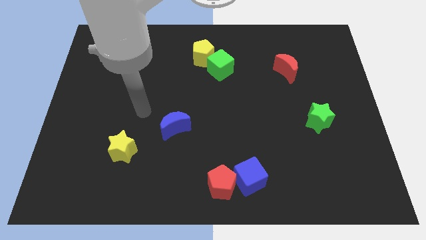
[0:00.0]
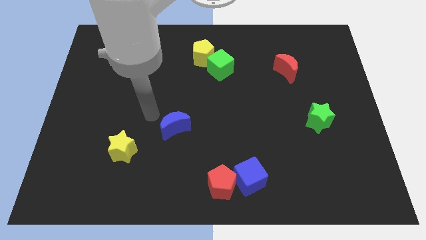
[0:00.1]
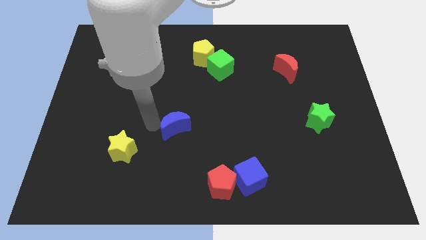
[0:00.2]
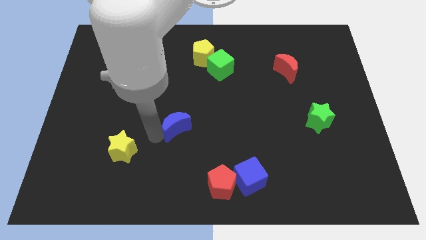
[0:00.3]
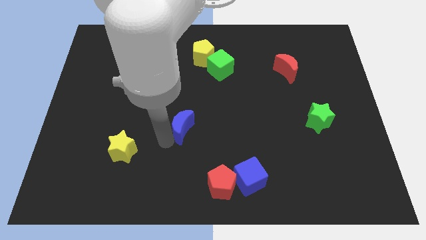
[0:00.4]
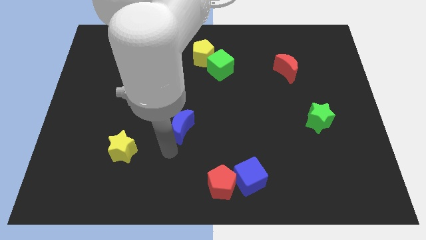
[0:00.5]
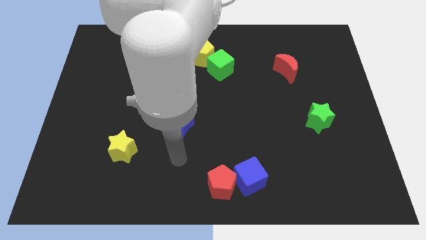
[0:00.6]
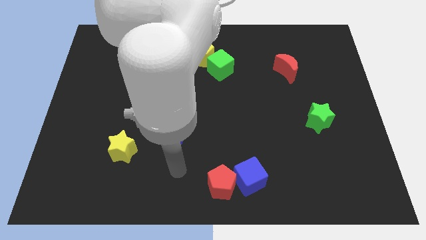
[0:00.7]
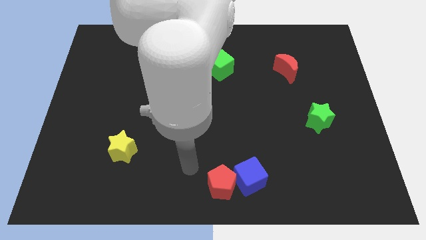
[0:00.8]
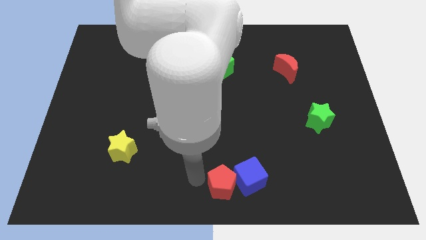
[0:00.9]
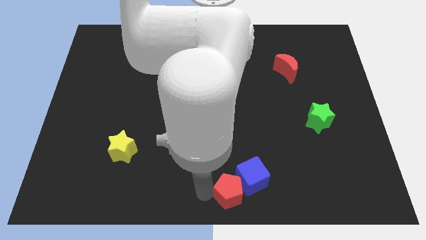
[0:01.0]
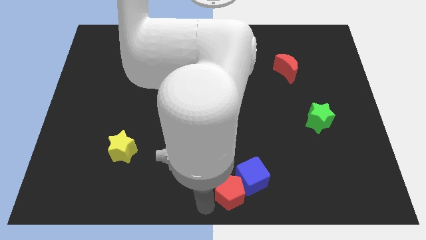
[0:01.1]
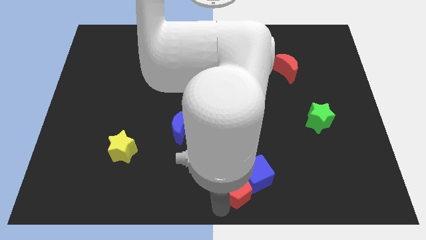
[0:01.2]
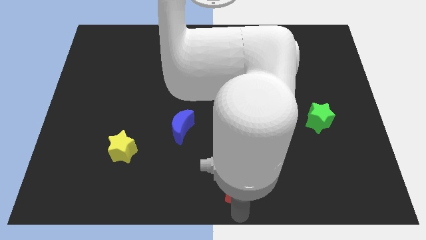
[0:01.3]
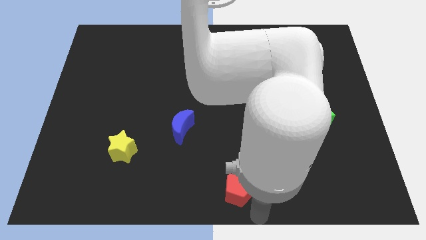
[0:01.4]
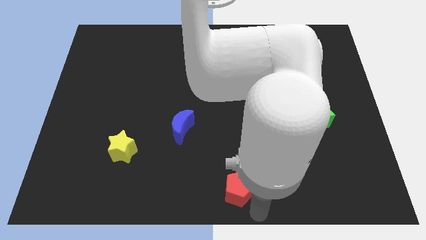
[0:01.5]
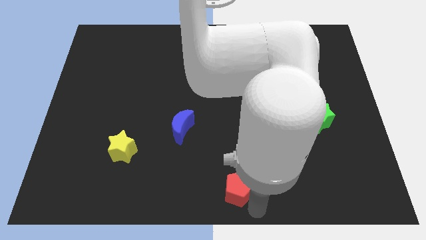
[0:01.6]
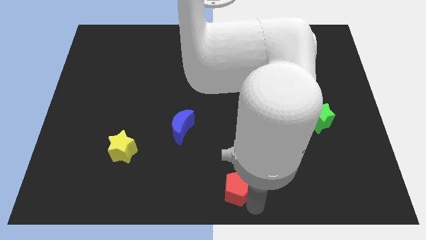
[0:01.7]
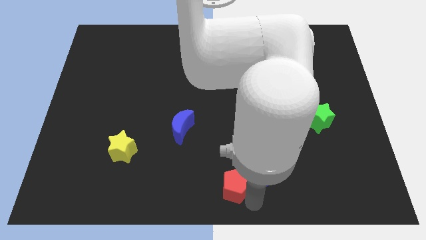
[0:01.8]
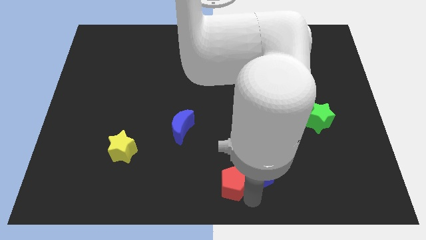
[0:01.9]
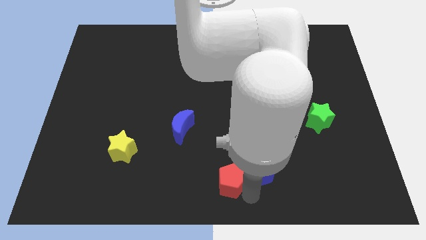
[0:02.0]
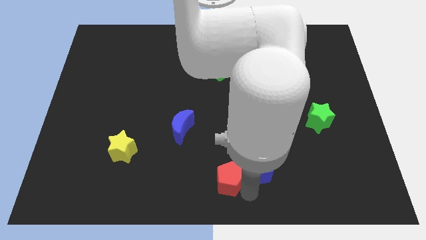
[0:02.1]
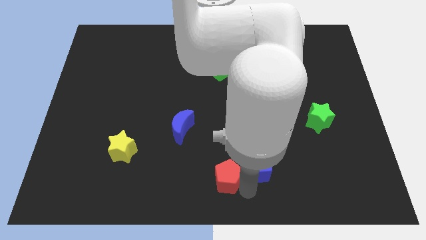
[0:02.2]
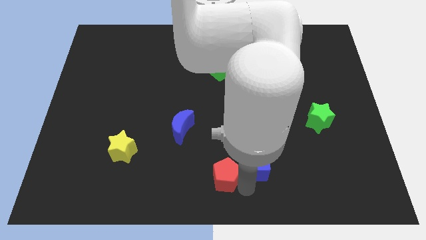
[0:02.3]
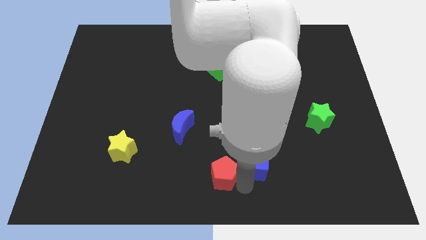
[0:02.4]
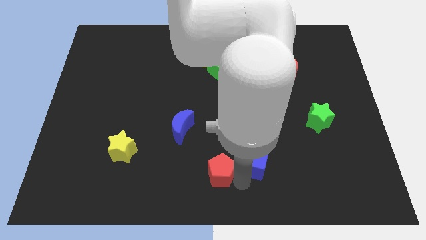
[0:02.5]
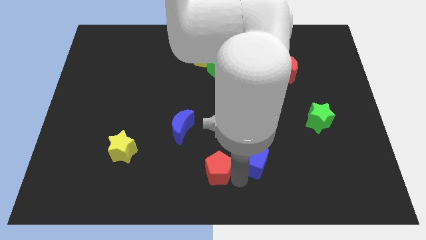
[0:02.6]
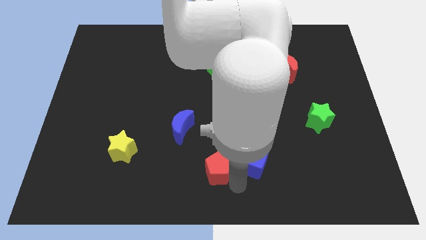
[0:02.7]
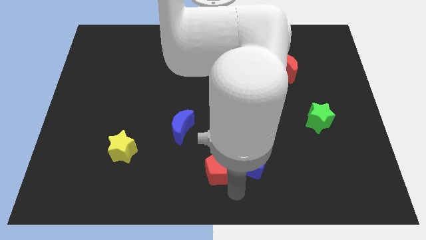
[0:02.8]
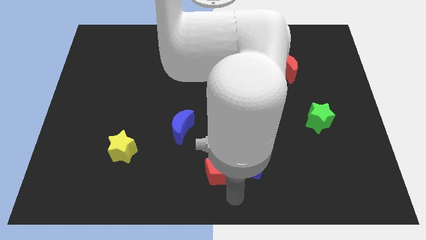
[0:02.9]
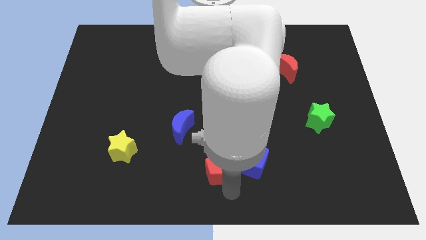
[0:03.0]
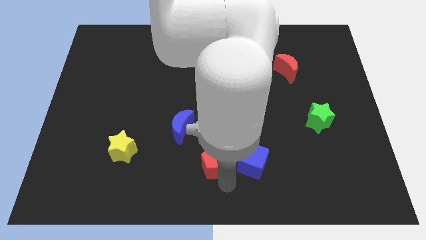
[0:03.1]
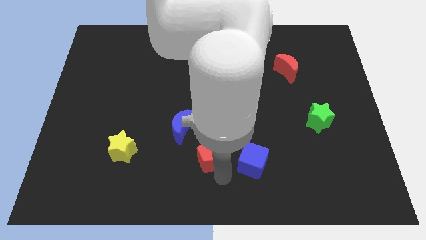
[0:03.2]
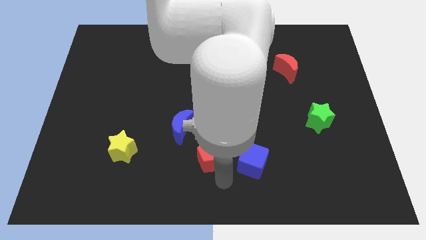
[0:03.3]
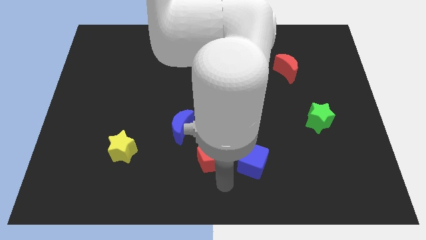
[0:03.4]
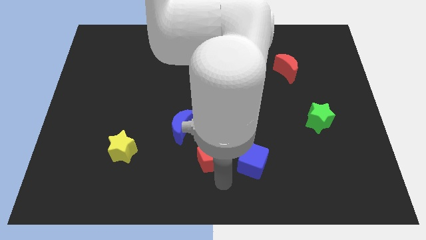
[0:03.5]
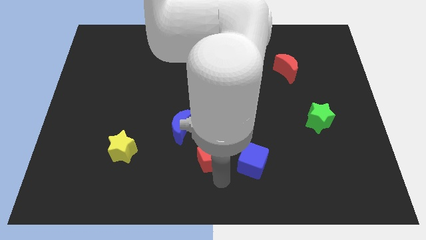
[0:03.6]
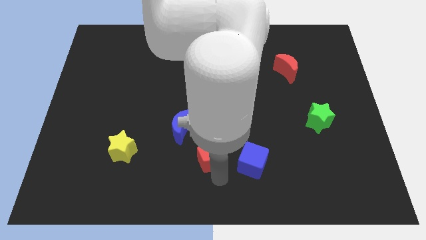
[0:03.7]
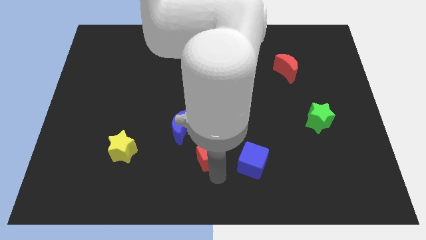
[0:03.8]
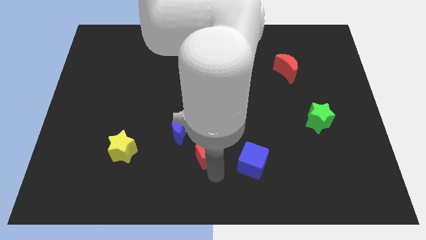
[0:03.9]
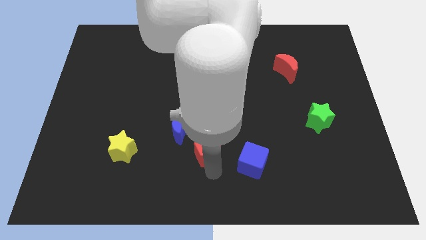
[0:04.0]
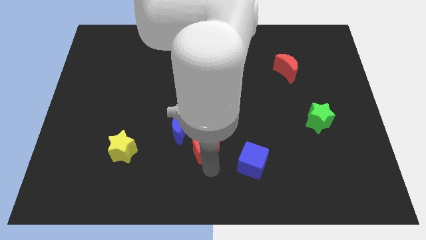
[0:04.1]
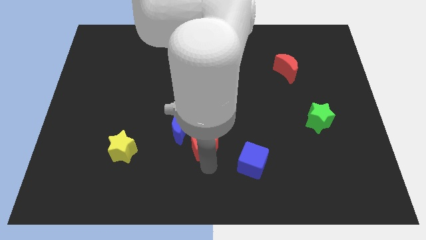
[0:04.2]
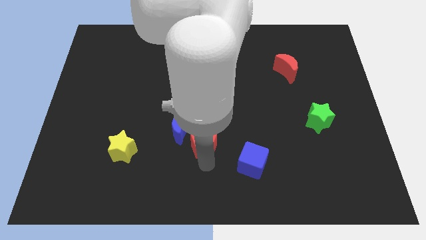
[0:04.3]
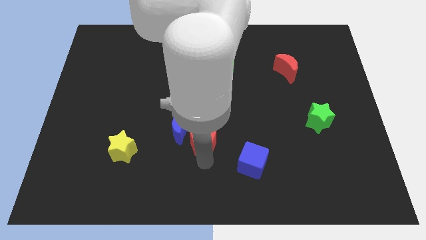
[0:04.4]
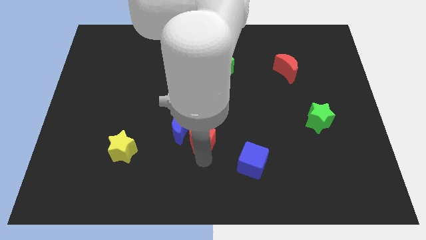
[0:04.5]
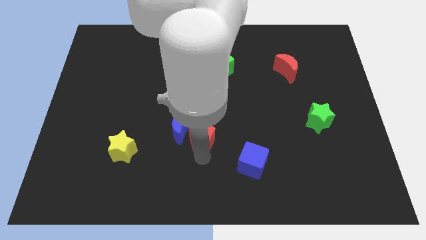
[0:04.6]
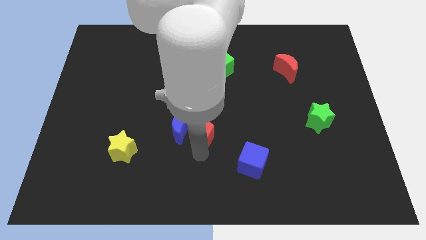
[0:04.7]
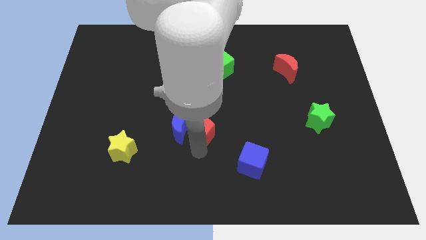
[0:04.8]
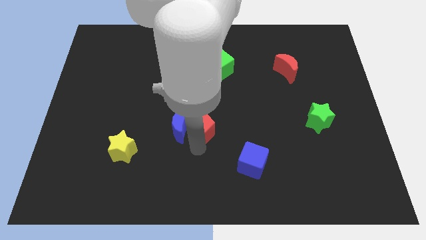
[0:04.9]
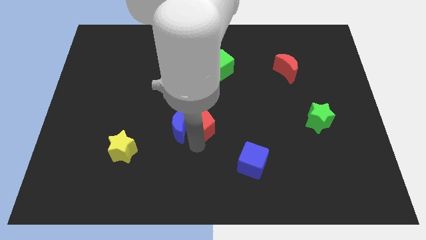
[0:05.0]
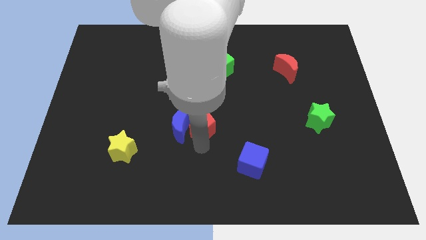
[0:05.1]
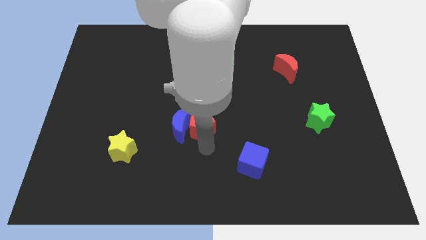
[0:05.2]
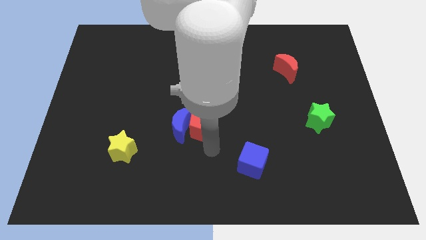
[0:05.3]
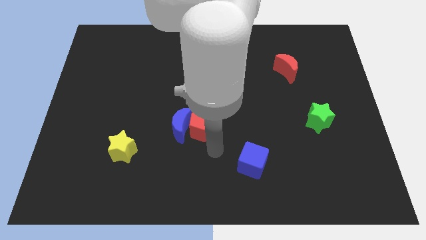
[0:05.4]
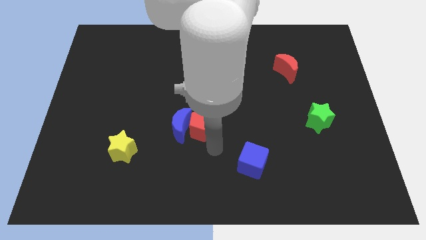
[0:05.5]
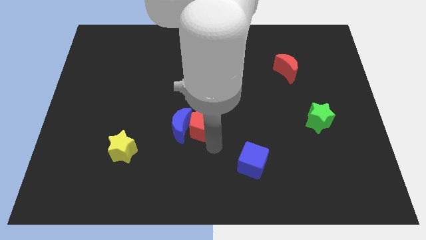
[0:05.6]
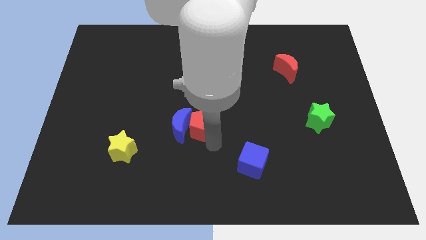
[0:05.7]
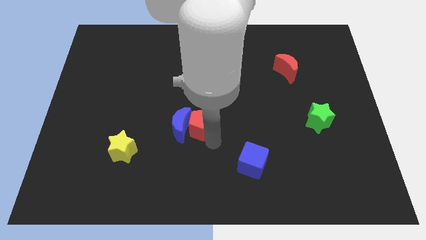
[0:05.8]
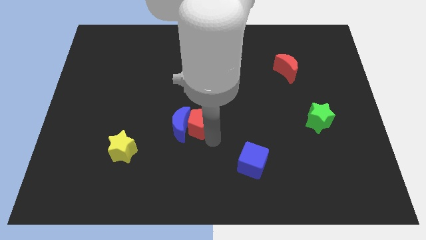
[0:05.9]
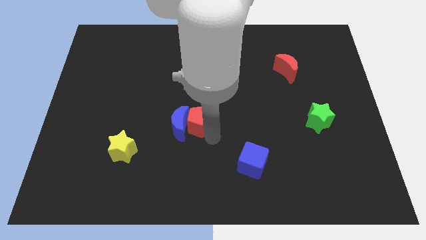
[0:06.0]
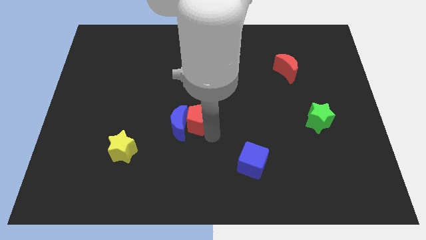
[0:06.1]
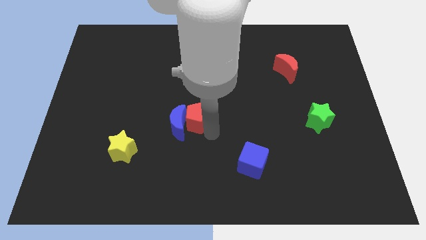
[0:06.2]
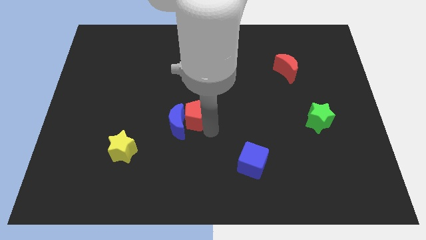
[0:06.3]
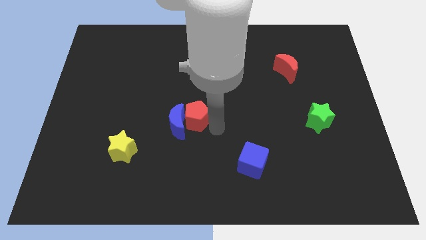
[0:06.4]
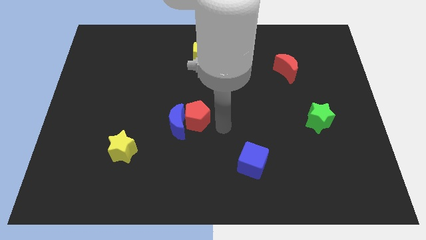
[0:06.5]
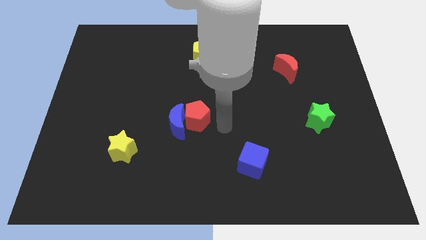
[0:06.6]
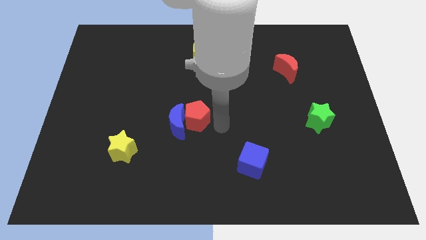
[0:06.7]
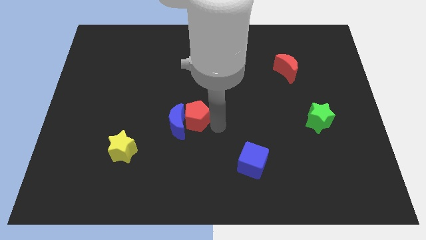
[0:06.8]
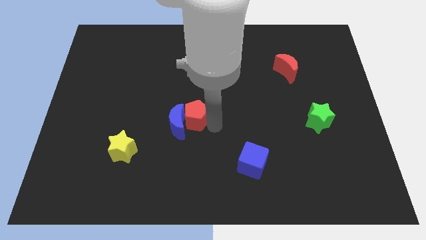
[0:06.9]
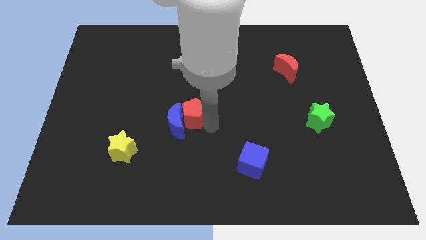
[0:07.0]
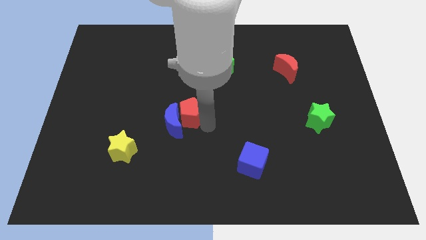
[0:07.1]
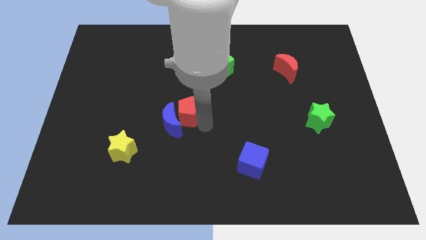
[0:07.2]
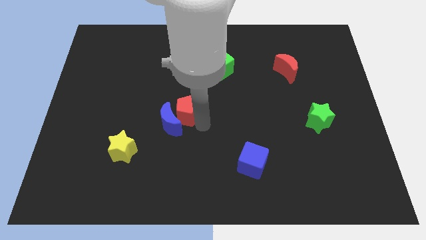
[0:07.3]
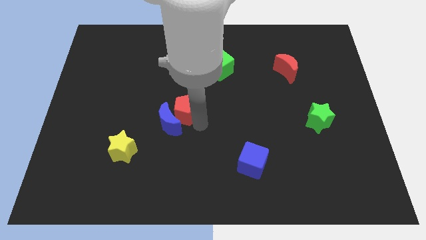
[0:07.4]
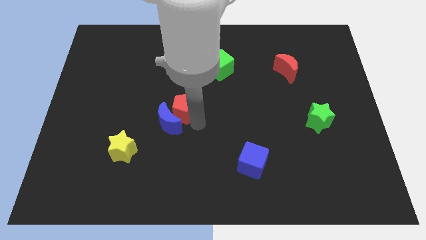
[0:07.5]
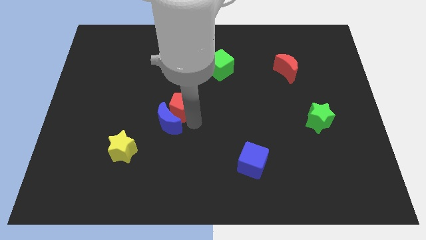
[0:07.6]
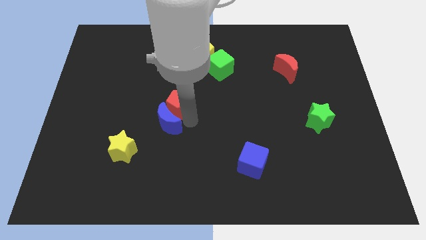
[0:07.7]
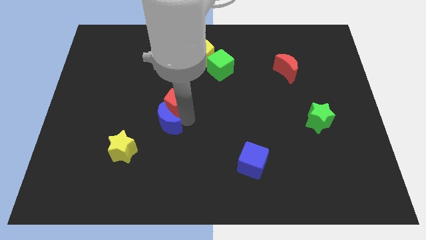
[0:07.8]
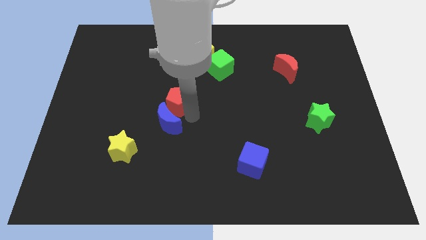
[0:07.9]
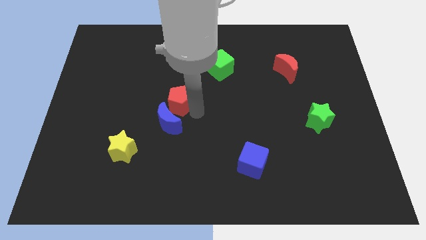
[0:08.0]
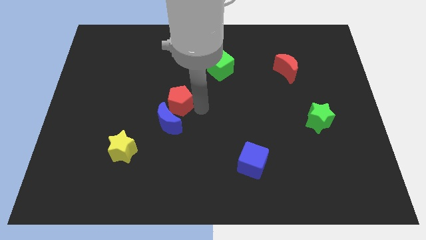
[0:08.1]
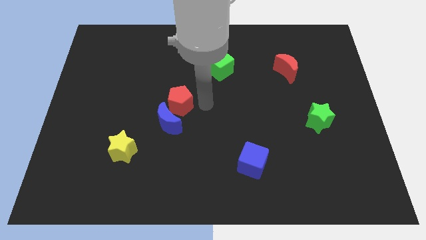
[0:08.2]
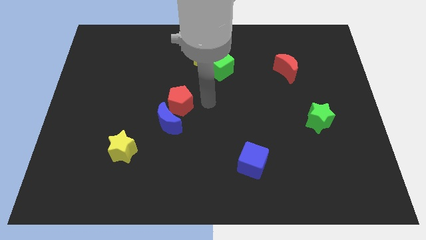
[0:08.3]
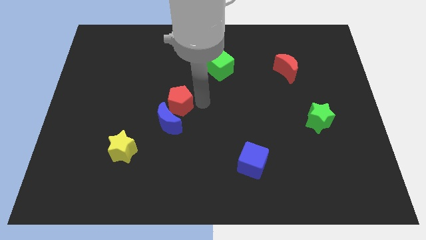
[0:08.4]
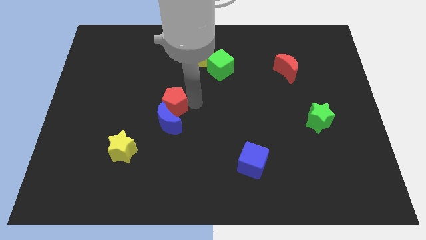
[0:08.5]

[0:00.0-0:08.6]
slide the red pentagon to the top left of the blue moon
